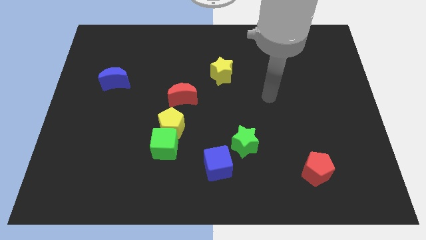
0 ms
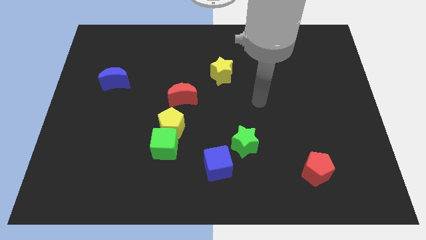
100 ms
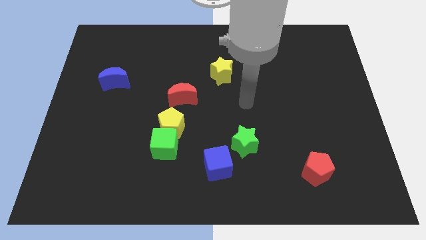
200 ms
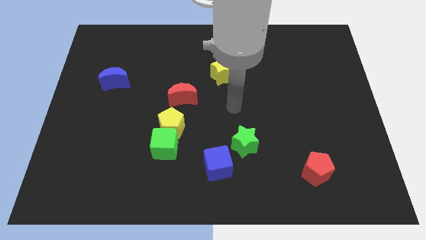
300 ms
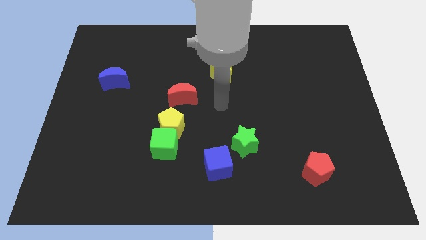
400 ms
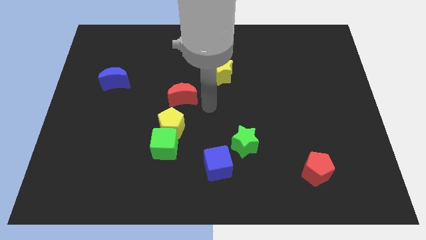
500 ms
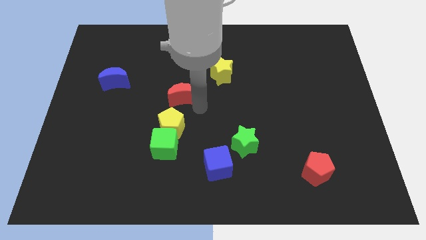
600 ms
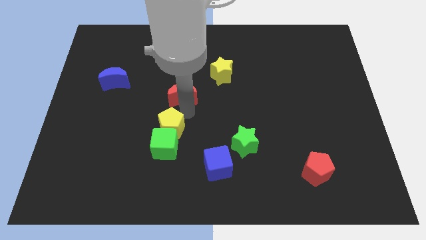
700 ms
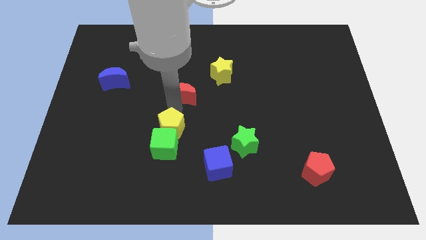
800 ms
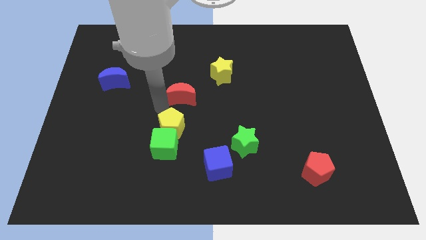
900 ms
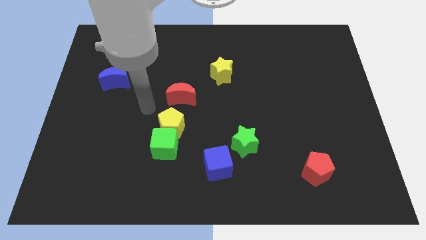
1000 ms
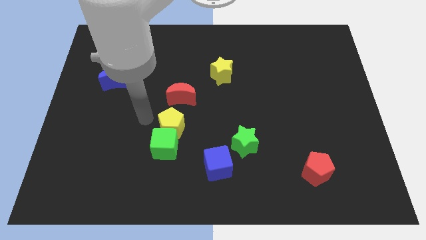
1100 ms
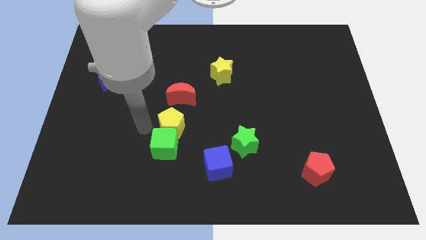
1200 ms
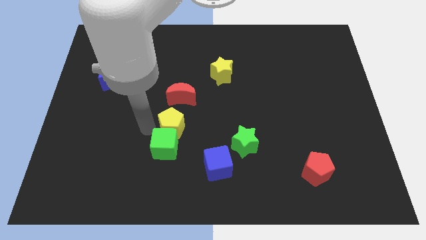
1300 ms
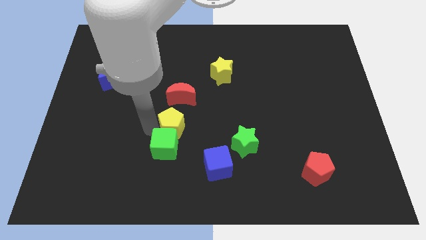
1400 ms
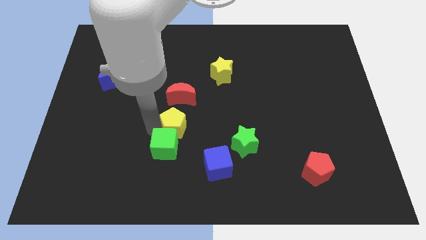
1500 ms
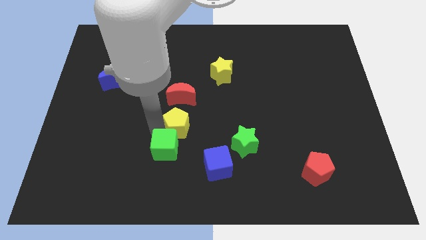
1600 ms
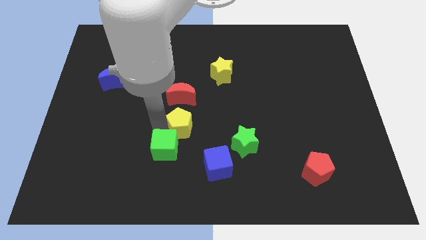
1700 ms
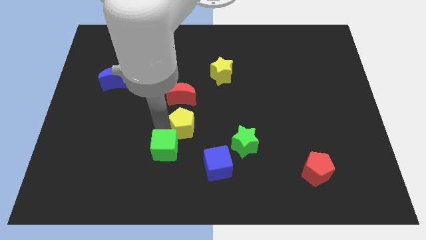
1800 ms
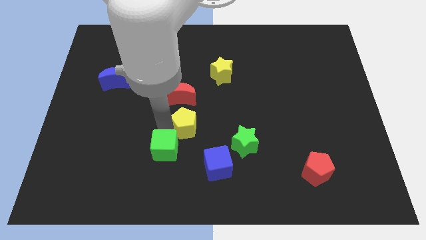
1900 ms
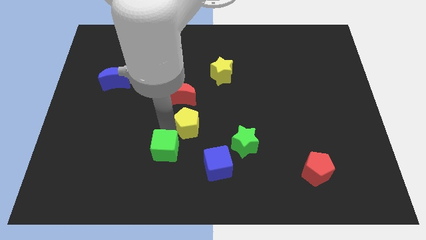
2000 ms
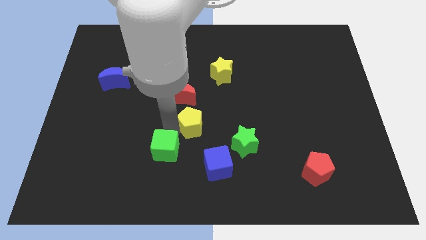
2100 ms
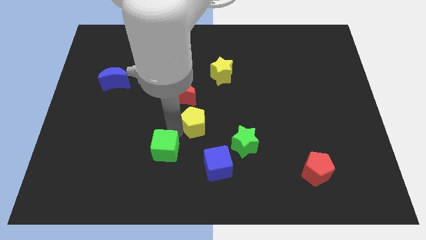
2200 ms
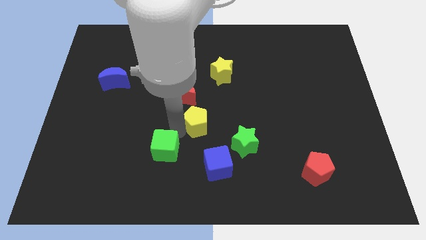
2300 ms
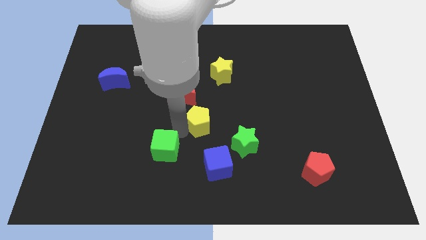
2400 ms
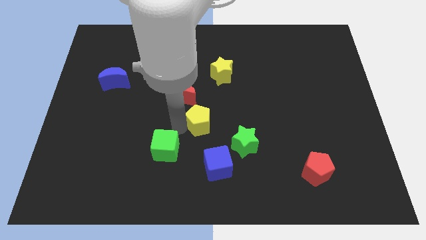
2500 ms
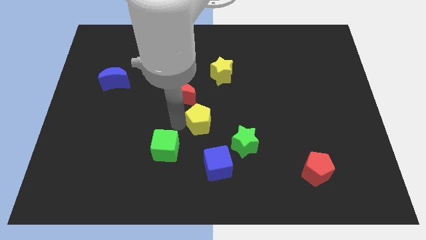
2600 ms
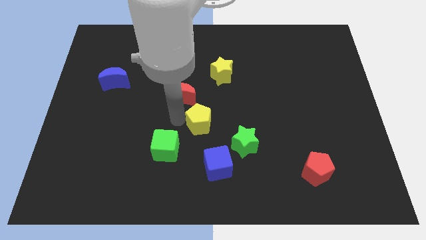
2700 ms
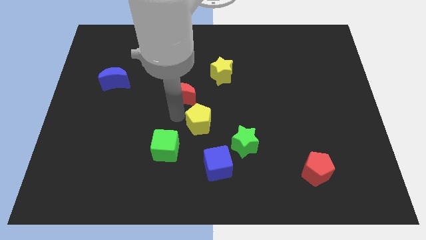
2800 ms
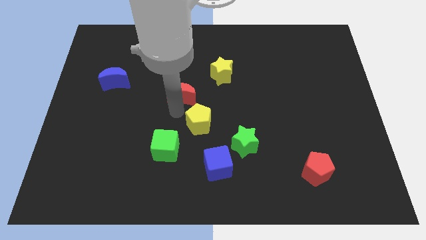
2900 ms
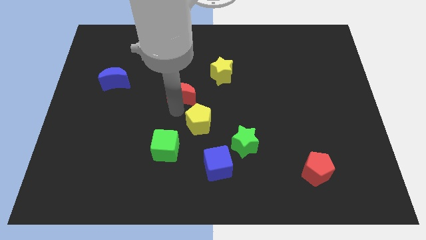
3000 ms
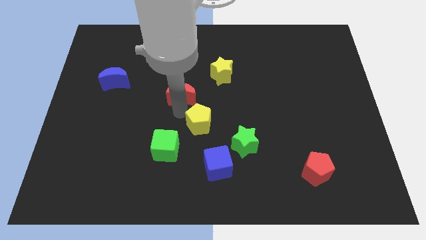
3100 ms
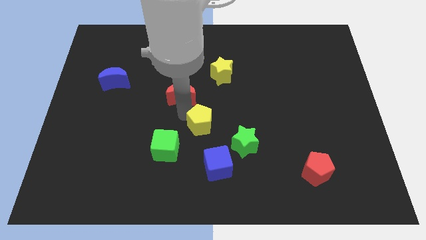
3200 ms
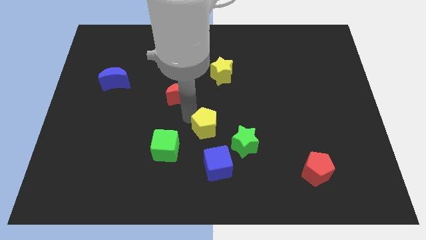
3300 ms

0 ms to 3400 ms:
slide the yellow pentagon right a little

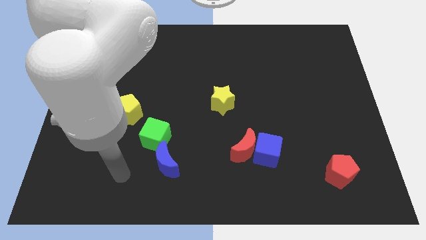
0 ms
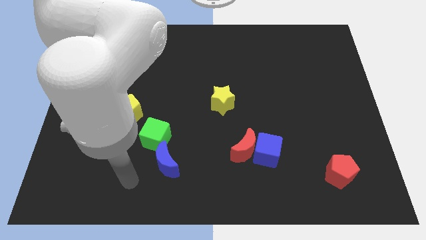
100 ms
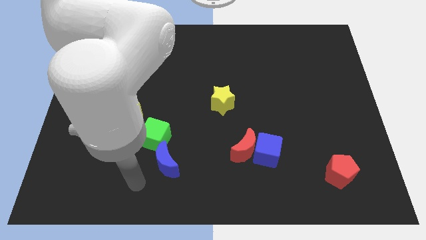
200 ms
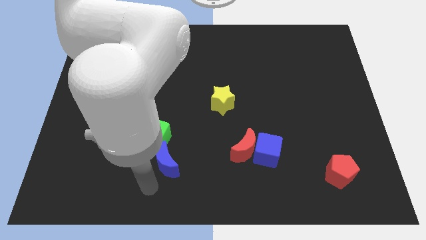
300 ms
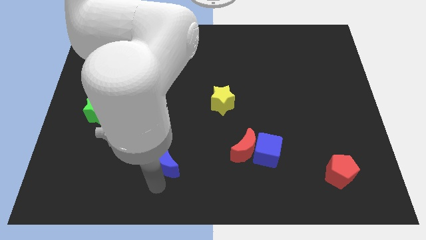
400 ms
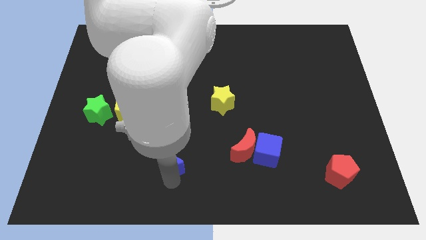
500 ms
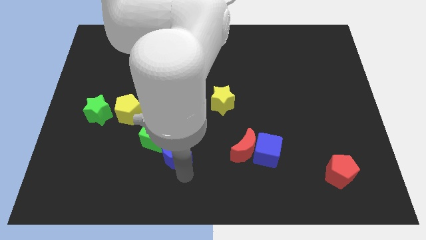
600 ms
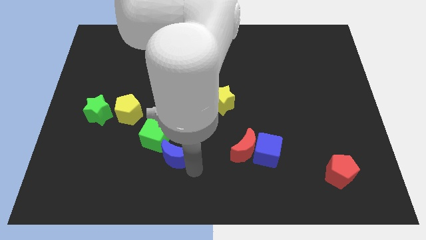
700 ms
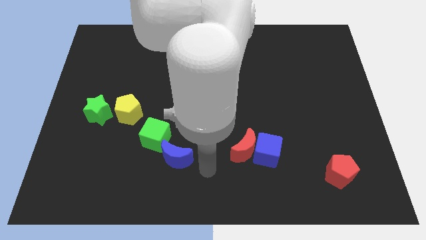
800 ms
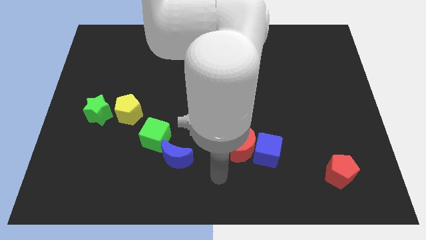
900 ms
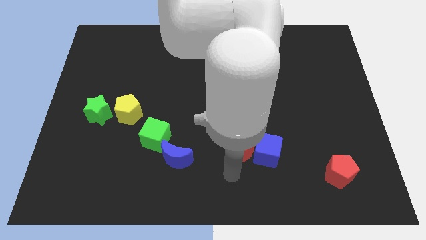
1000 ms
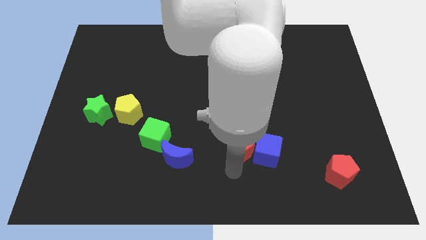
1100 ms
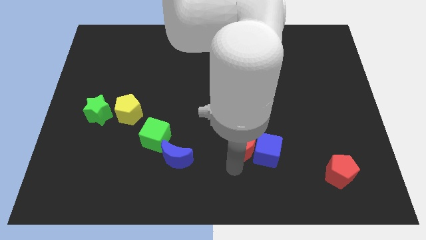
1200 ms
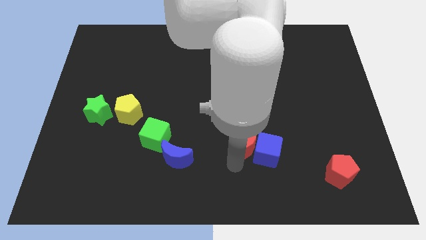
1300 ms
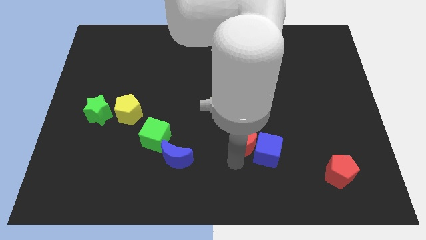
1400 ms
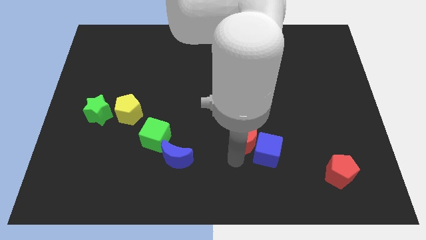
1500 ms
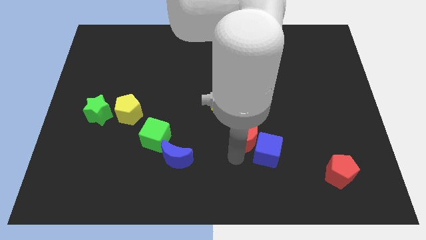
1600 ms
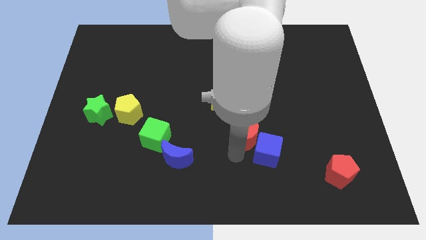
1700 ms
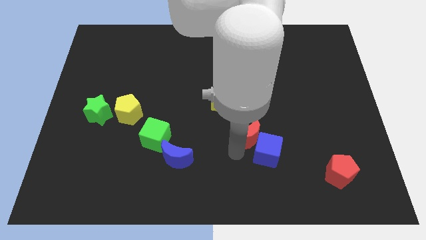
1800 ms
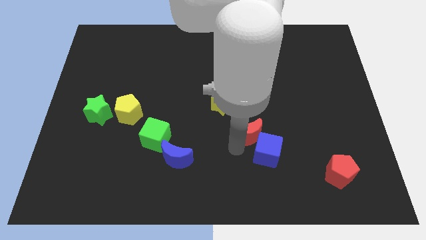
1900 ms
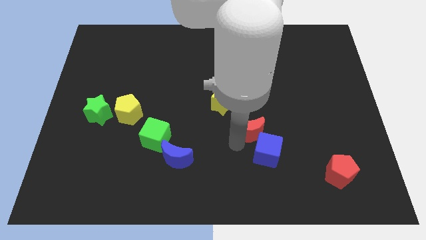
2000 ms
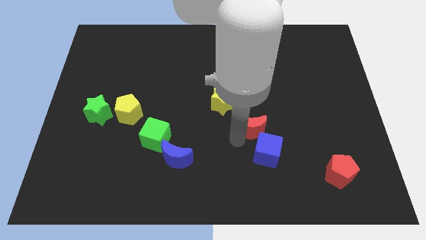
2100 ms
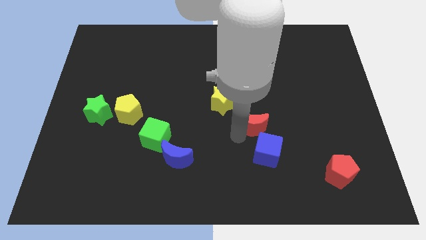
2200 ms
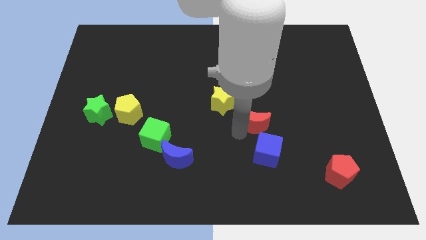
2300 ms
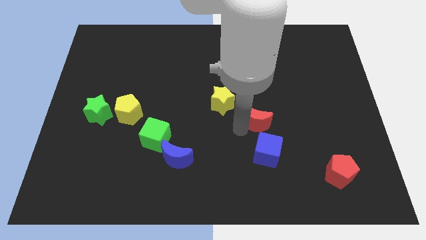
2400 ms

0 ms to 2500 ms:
slightly move the red moon upwards and right

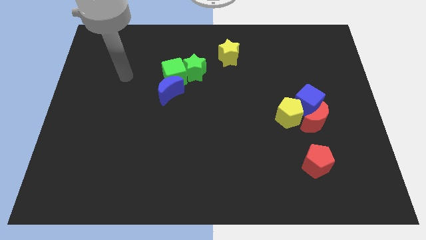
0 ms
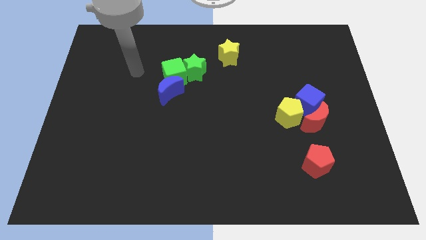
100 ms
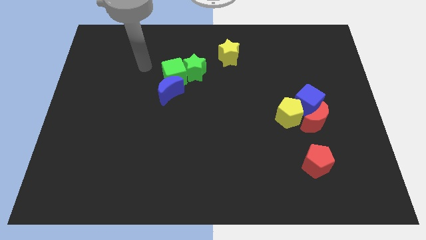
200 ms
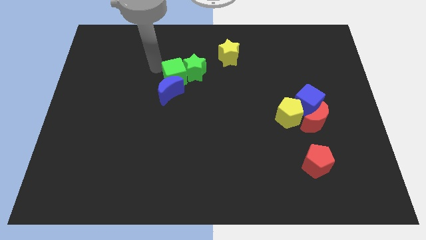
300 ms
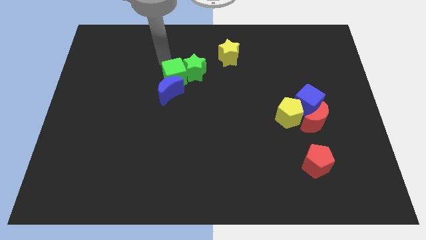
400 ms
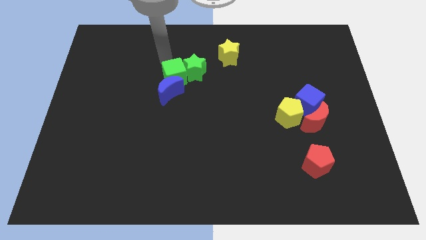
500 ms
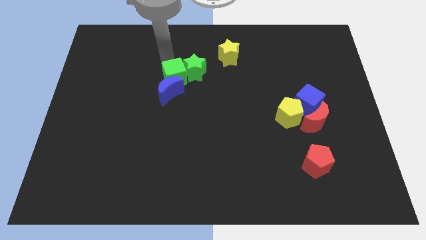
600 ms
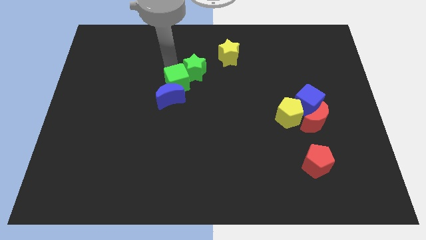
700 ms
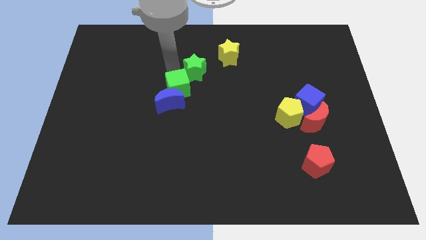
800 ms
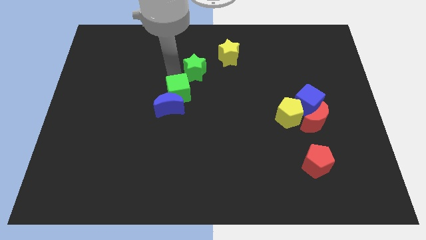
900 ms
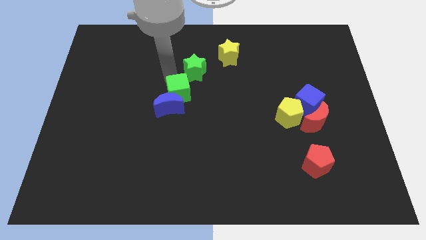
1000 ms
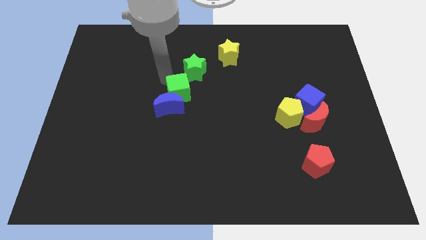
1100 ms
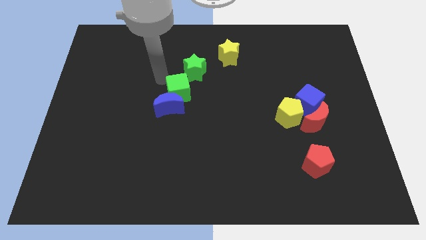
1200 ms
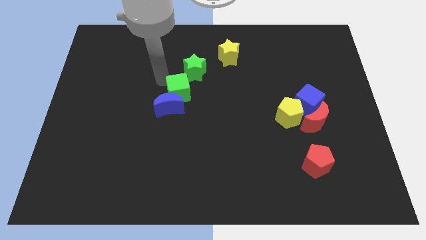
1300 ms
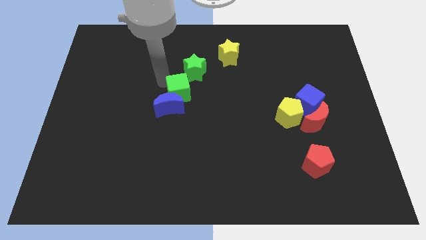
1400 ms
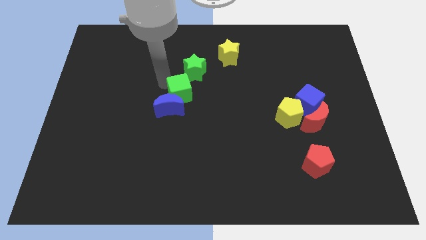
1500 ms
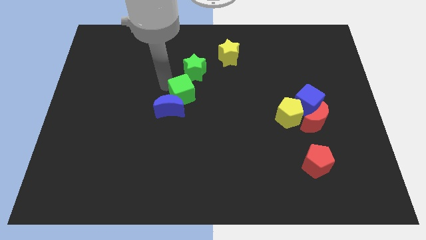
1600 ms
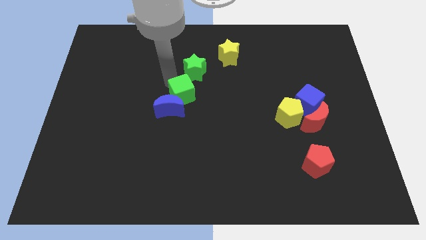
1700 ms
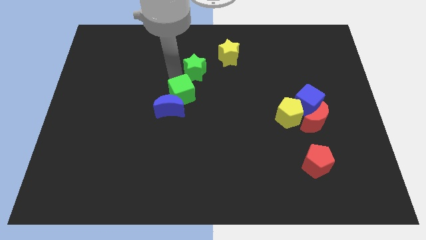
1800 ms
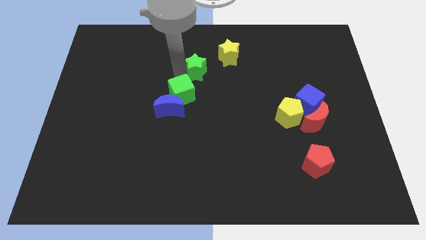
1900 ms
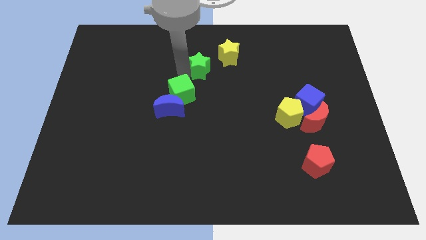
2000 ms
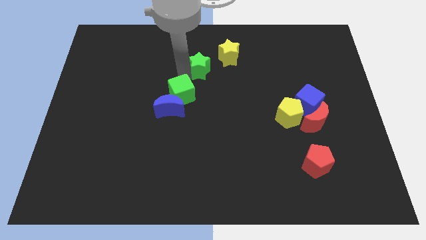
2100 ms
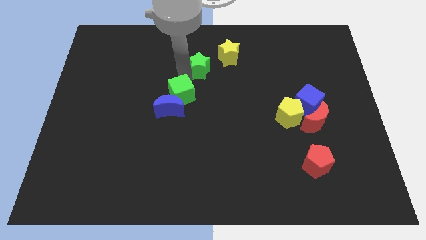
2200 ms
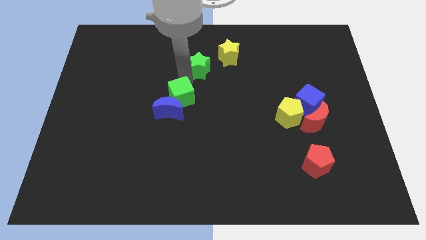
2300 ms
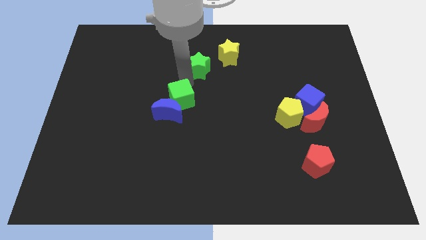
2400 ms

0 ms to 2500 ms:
slide the green cube downwards slightly
